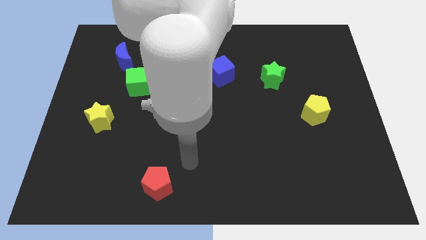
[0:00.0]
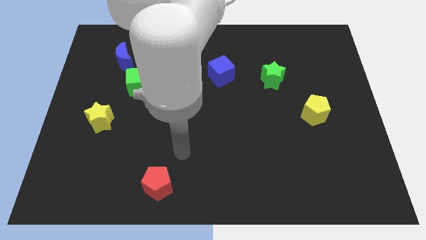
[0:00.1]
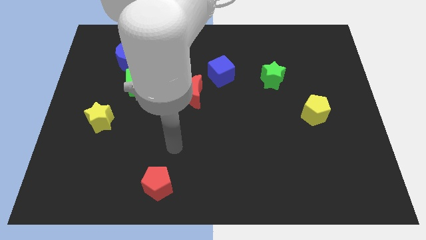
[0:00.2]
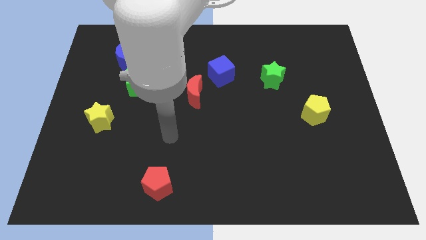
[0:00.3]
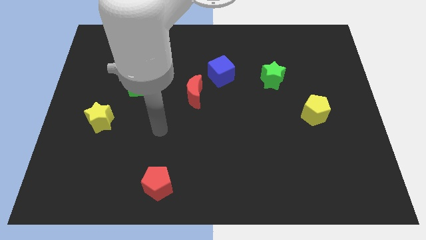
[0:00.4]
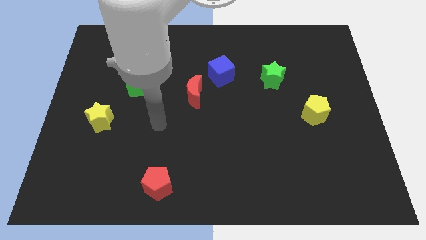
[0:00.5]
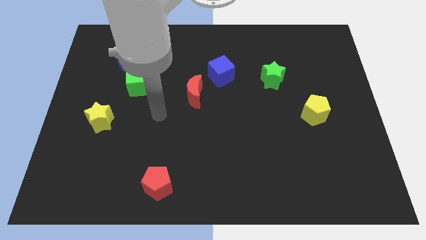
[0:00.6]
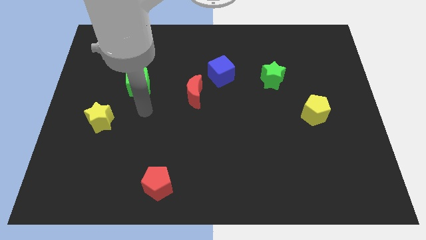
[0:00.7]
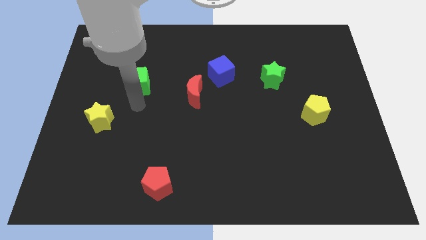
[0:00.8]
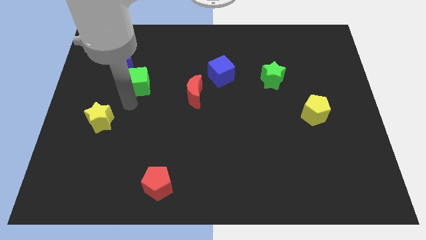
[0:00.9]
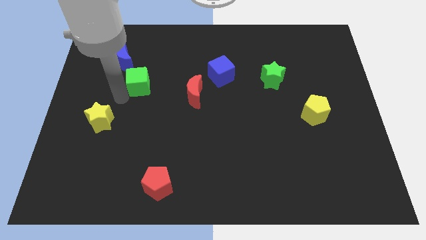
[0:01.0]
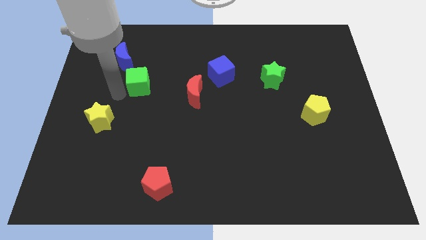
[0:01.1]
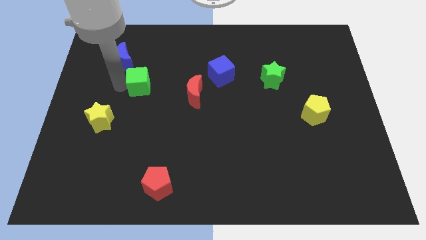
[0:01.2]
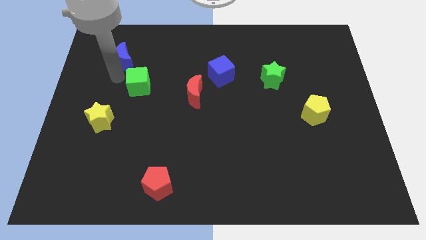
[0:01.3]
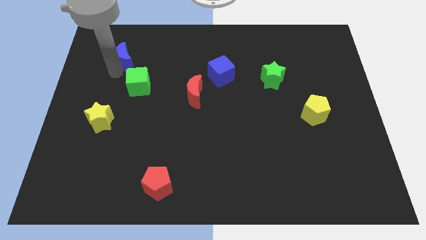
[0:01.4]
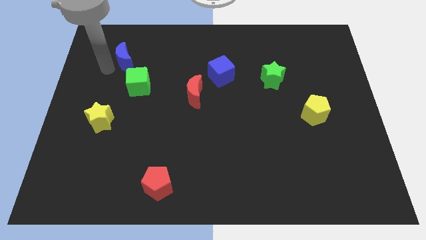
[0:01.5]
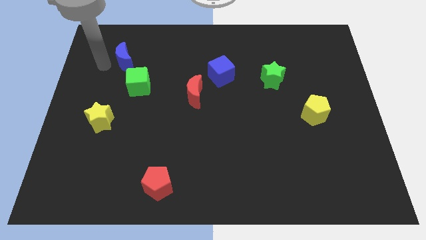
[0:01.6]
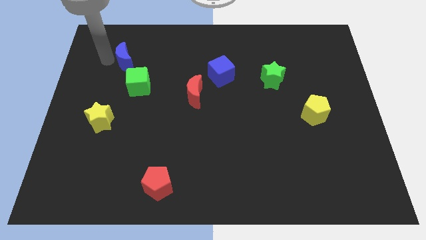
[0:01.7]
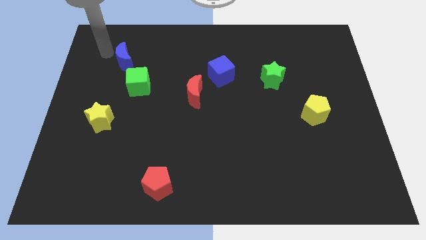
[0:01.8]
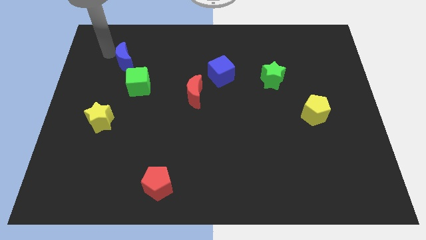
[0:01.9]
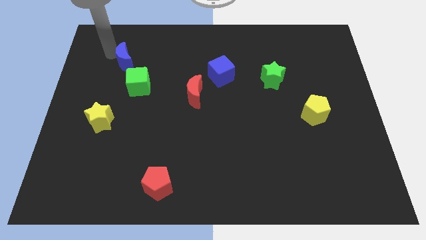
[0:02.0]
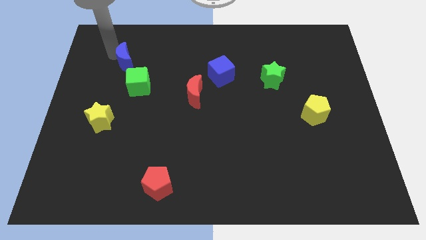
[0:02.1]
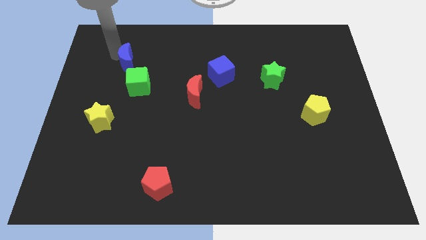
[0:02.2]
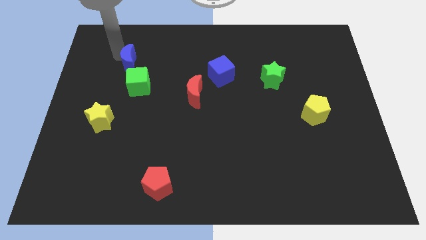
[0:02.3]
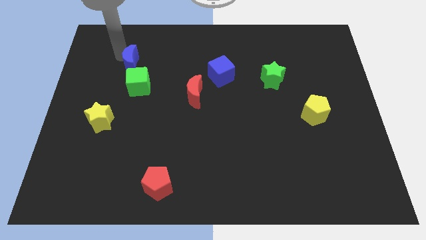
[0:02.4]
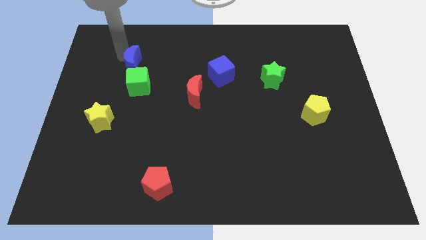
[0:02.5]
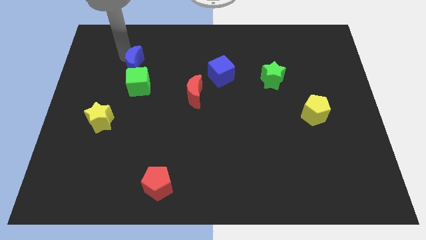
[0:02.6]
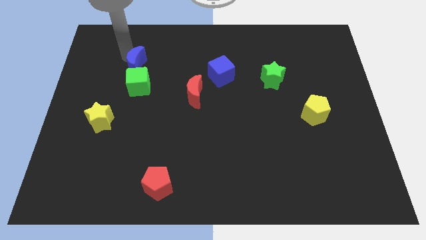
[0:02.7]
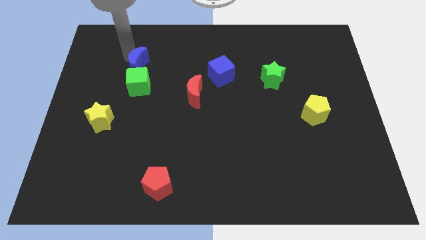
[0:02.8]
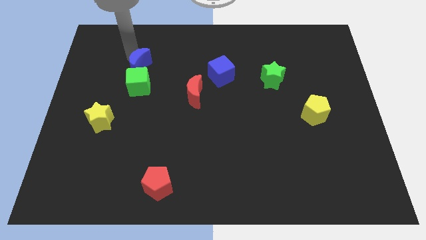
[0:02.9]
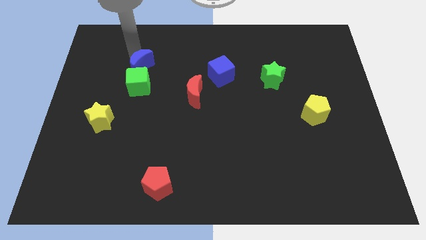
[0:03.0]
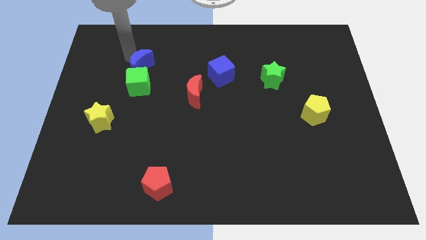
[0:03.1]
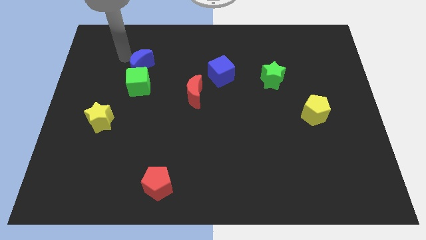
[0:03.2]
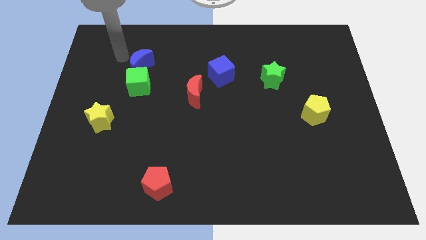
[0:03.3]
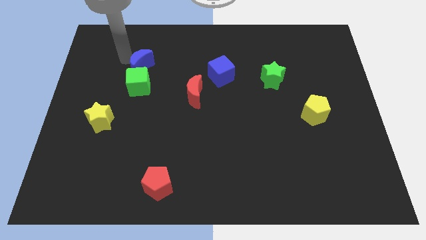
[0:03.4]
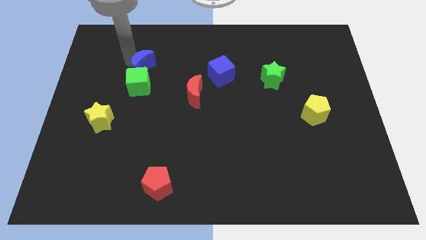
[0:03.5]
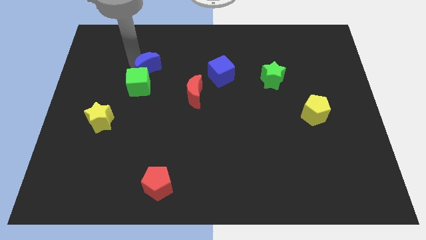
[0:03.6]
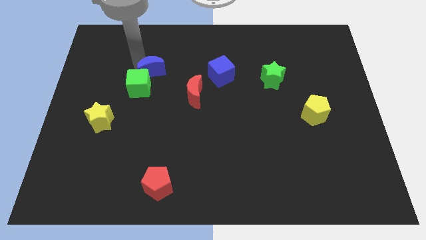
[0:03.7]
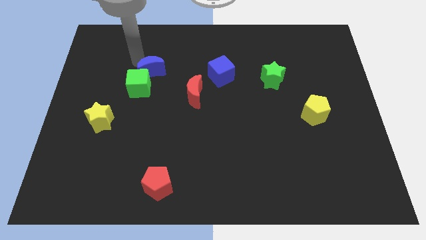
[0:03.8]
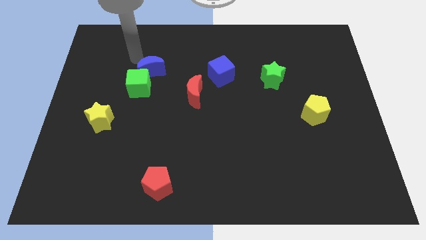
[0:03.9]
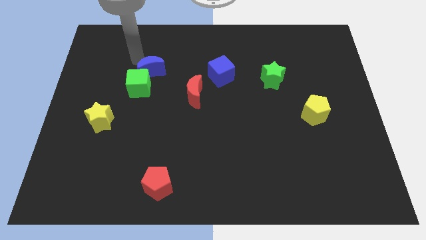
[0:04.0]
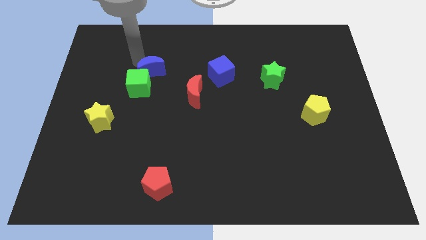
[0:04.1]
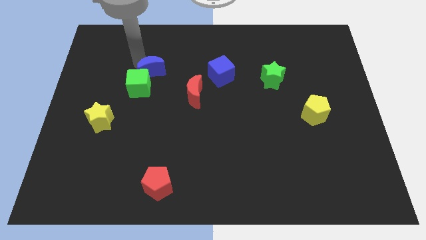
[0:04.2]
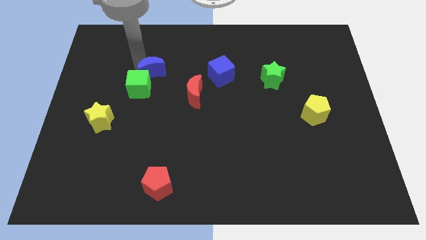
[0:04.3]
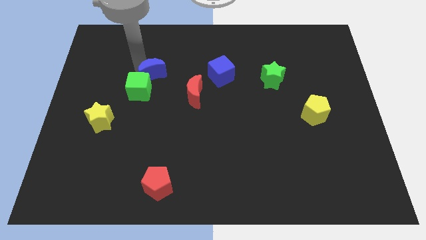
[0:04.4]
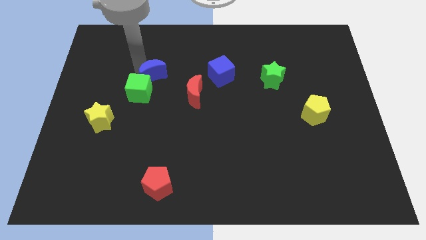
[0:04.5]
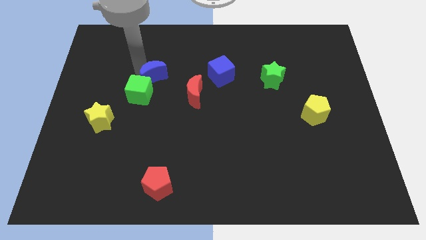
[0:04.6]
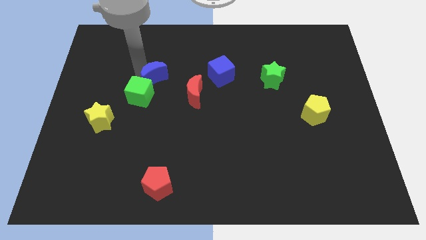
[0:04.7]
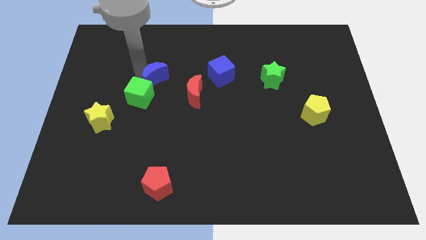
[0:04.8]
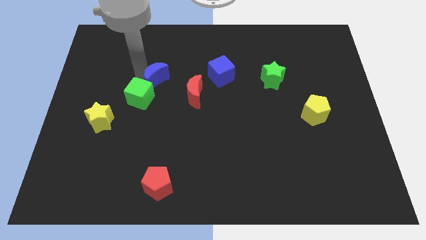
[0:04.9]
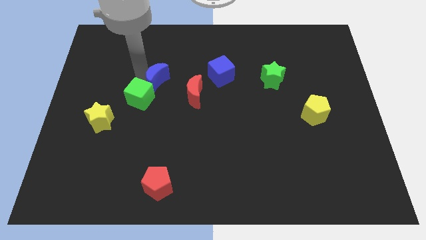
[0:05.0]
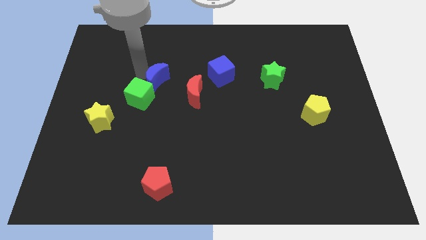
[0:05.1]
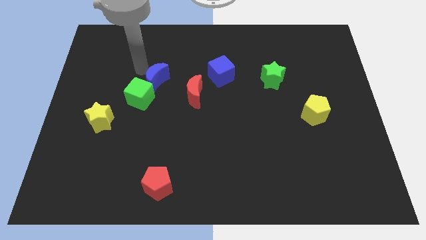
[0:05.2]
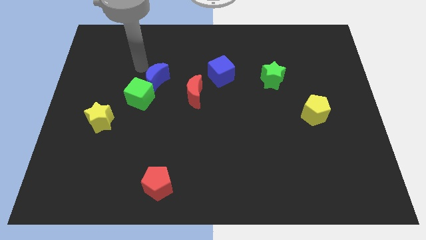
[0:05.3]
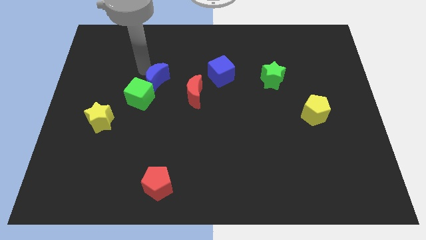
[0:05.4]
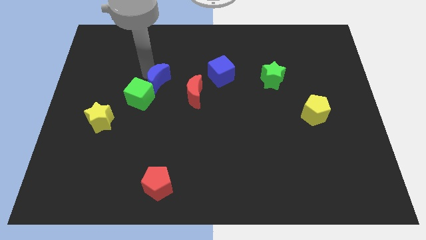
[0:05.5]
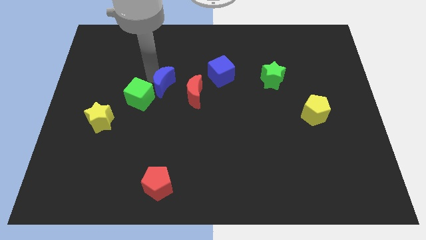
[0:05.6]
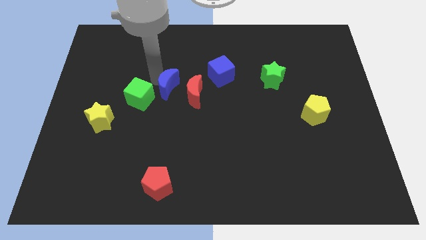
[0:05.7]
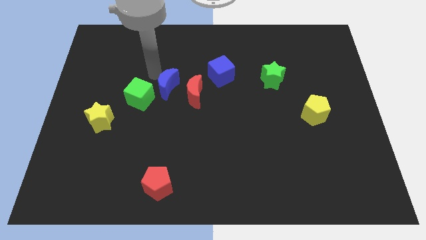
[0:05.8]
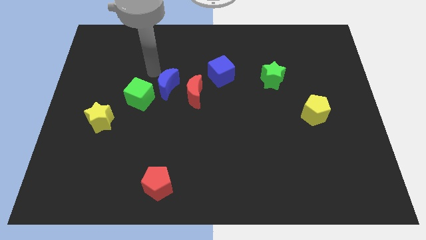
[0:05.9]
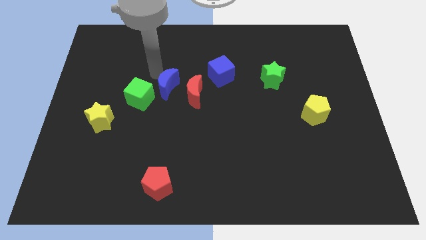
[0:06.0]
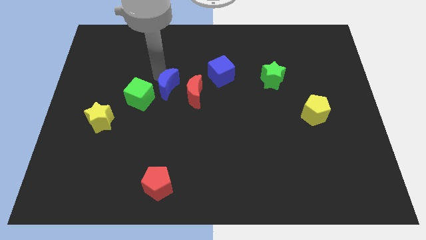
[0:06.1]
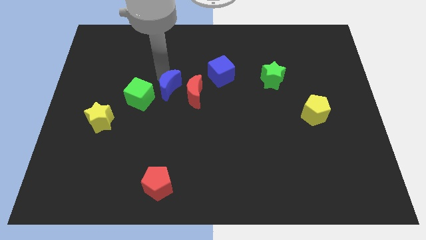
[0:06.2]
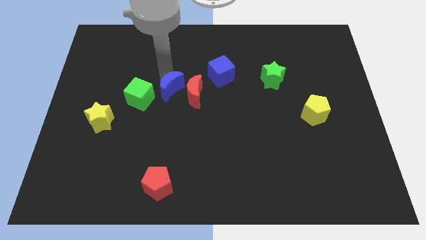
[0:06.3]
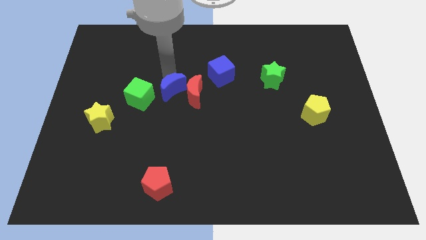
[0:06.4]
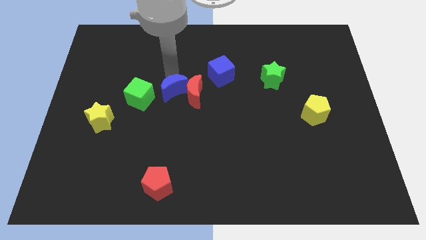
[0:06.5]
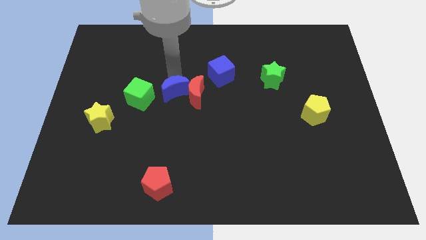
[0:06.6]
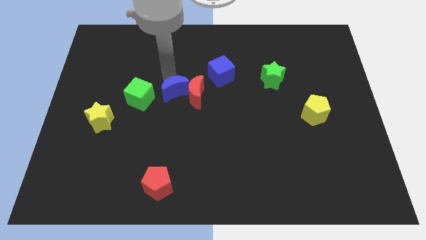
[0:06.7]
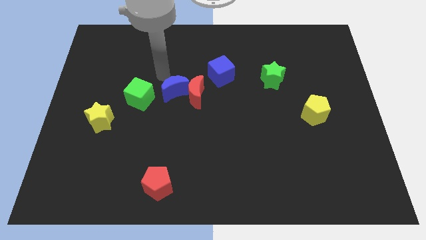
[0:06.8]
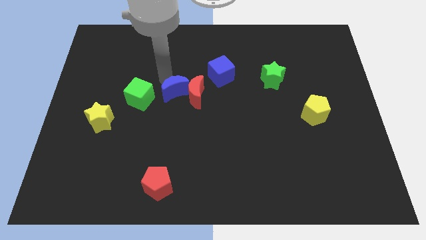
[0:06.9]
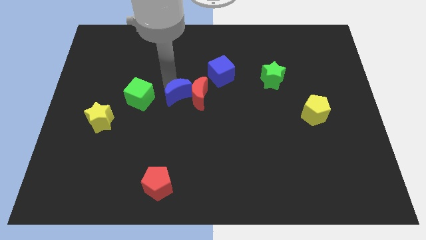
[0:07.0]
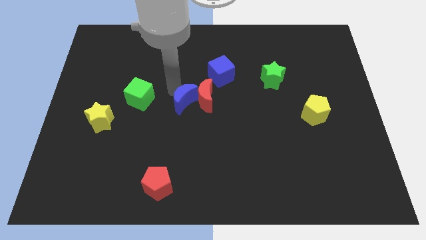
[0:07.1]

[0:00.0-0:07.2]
move the blue moon downwards and then to the right

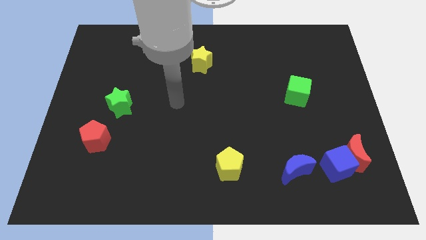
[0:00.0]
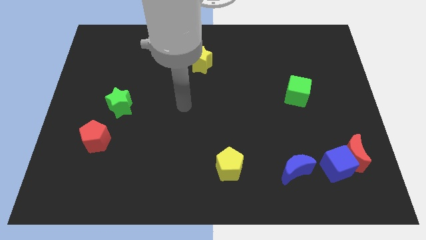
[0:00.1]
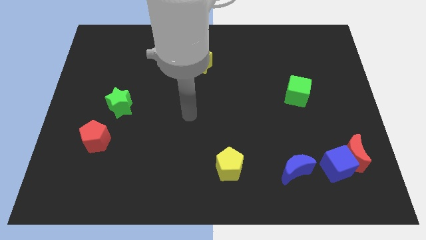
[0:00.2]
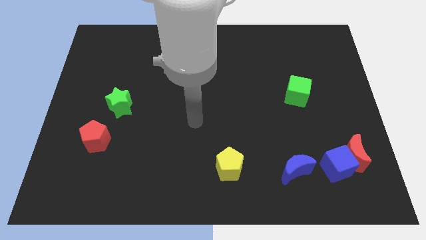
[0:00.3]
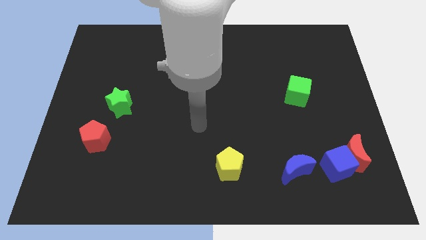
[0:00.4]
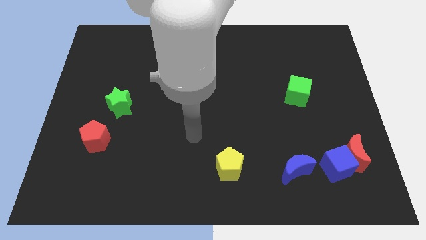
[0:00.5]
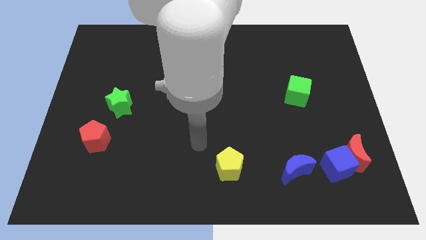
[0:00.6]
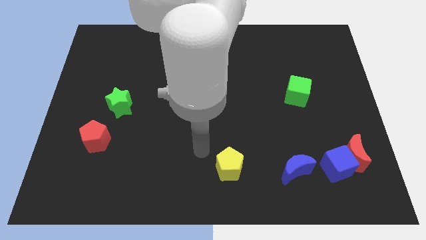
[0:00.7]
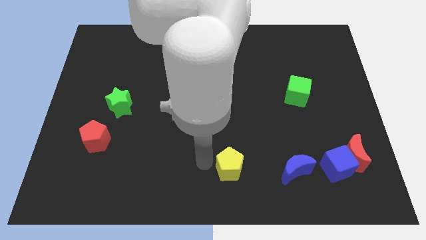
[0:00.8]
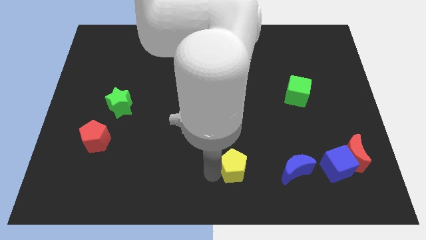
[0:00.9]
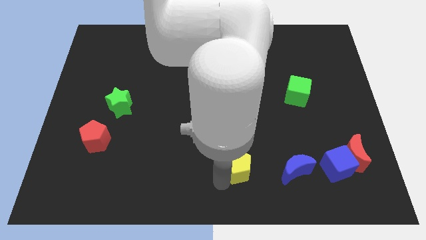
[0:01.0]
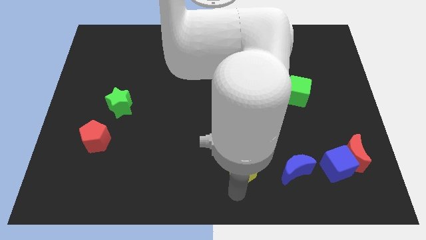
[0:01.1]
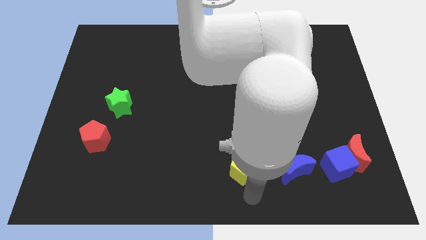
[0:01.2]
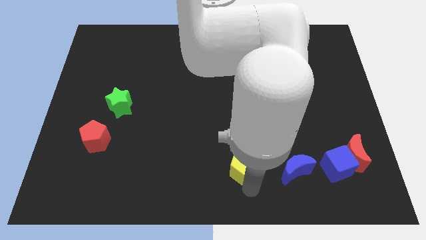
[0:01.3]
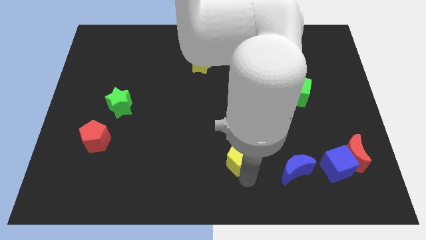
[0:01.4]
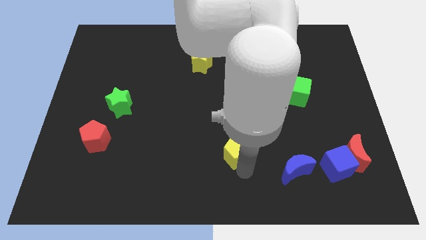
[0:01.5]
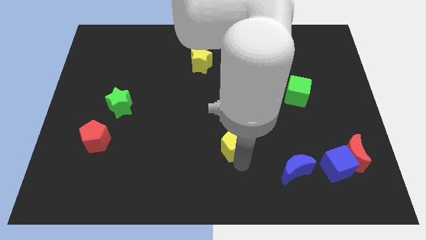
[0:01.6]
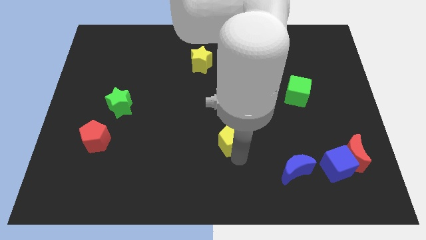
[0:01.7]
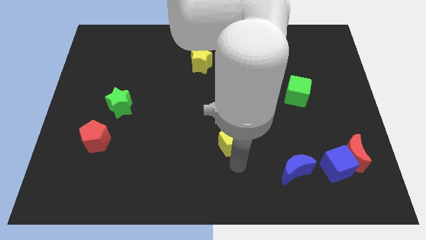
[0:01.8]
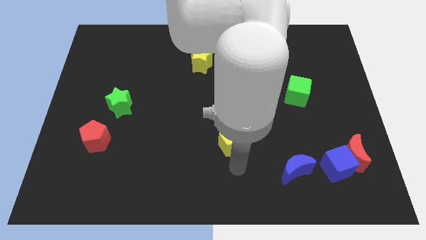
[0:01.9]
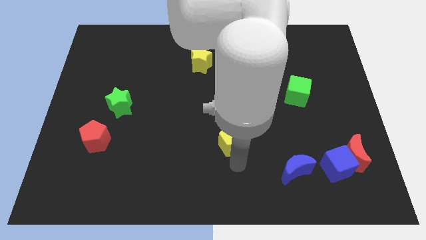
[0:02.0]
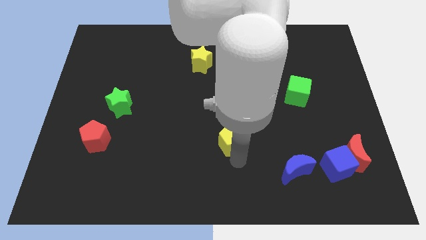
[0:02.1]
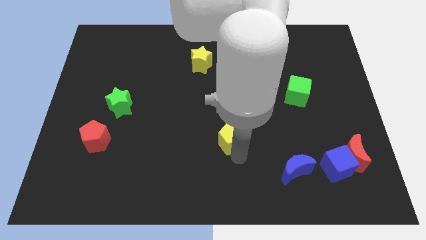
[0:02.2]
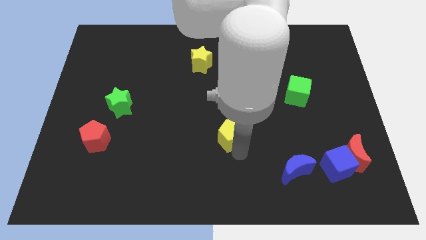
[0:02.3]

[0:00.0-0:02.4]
move the yellow pentagon up slightly
